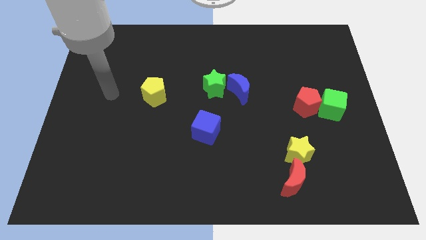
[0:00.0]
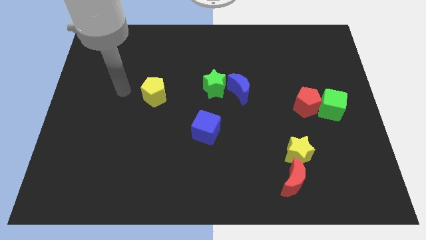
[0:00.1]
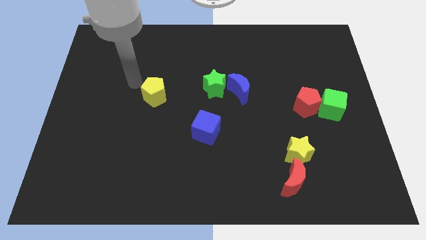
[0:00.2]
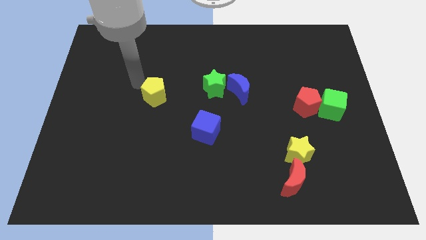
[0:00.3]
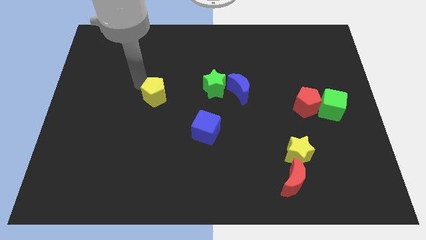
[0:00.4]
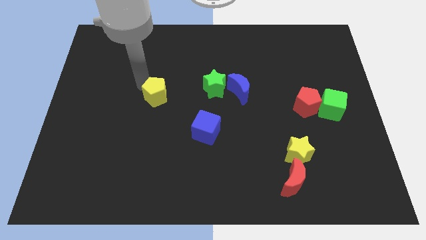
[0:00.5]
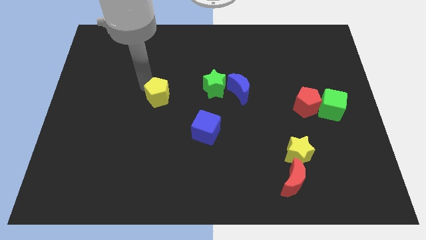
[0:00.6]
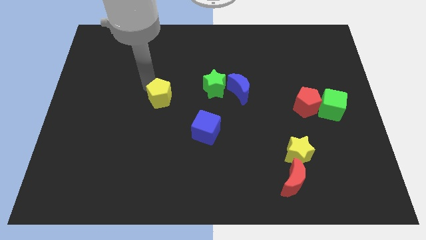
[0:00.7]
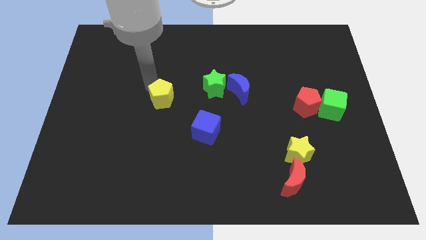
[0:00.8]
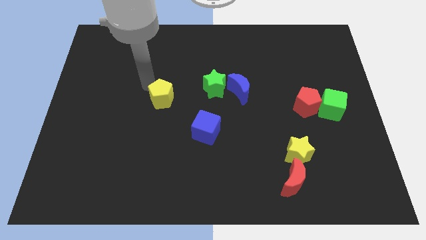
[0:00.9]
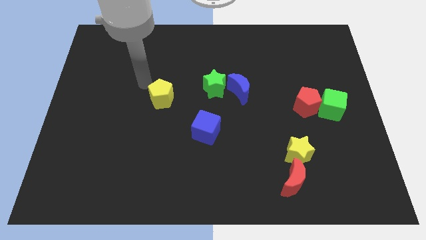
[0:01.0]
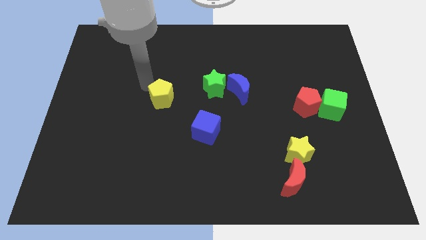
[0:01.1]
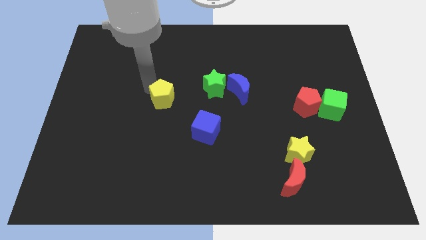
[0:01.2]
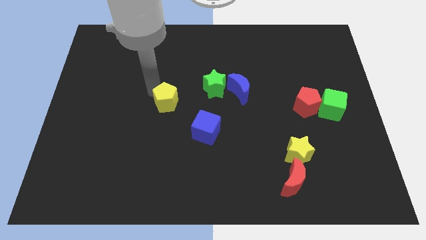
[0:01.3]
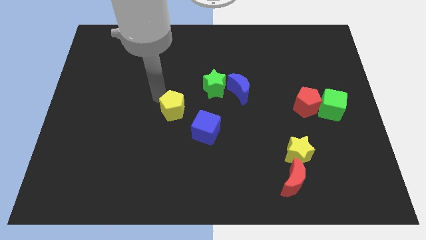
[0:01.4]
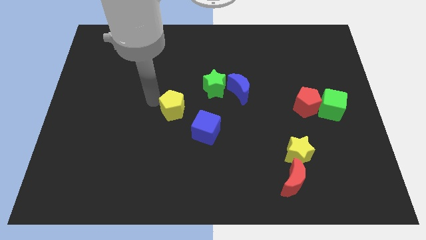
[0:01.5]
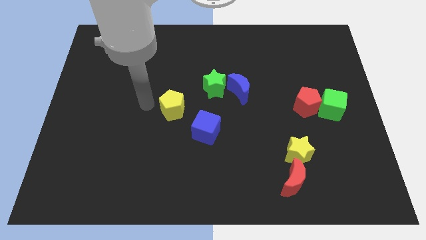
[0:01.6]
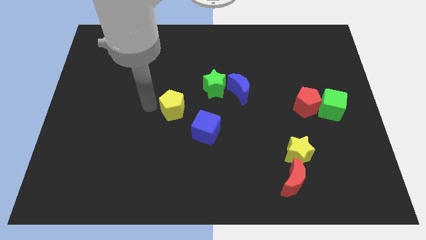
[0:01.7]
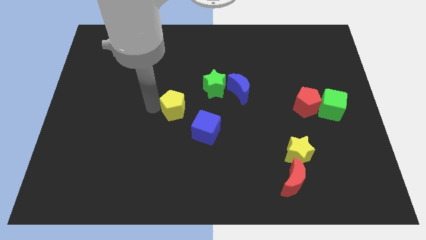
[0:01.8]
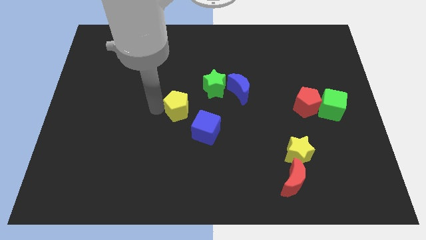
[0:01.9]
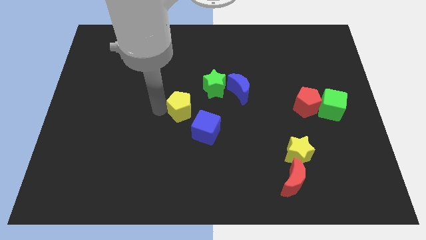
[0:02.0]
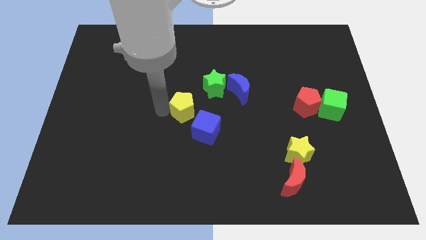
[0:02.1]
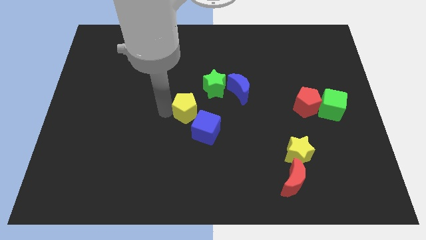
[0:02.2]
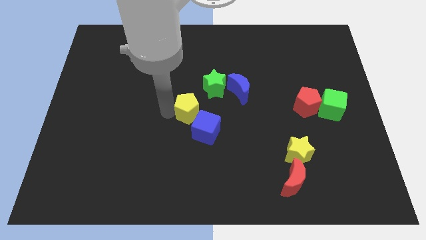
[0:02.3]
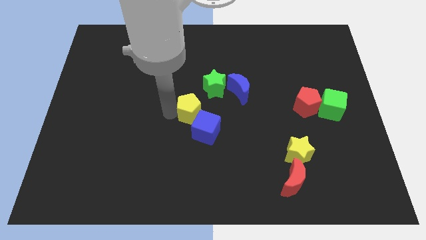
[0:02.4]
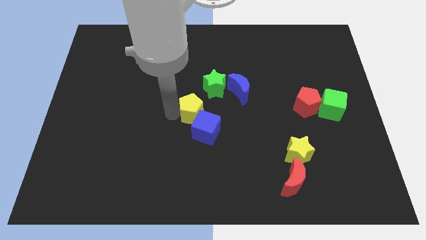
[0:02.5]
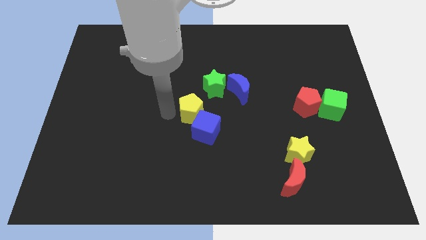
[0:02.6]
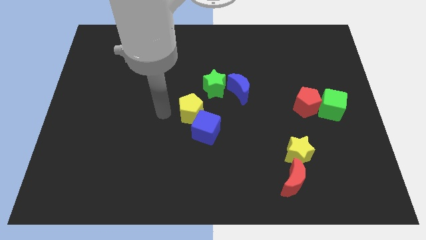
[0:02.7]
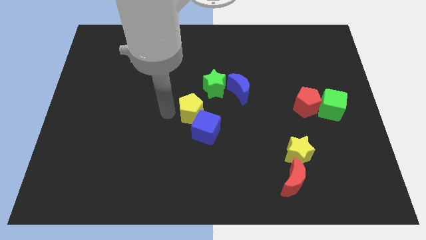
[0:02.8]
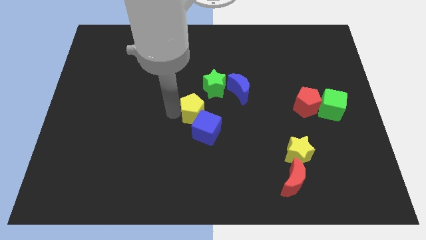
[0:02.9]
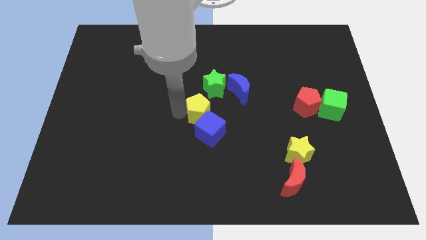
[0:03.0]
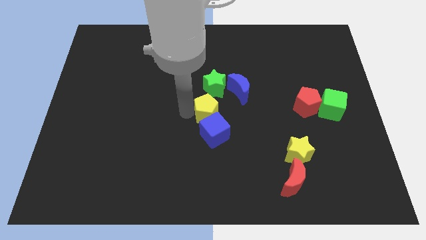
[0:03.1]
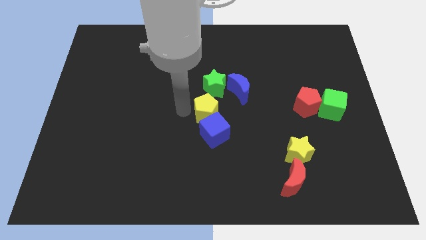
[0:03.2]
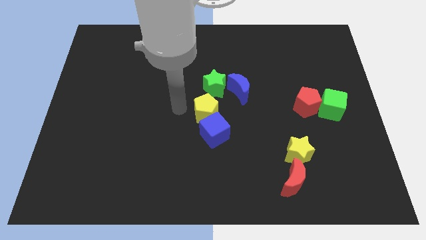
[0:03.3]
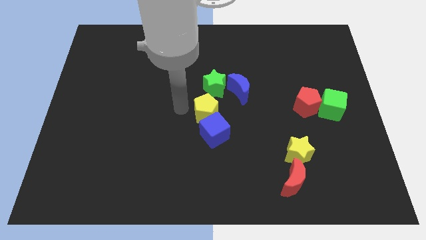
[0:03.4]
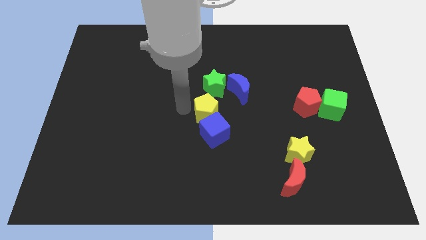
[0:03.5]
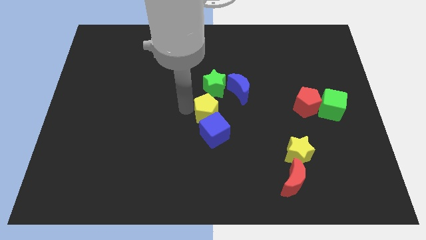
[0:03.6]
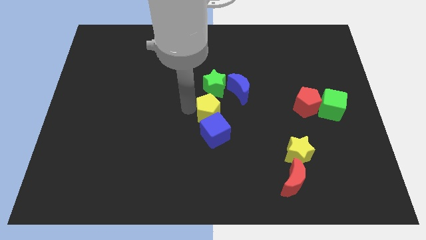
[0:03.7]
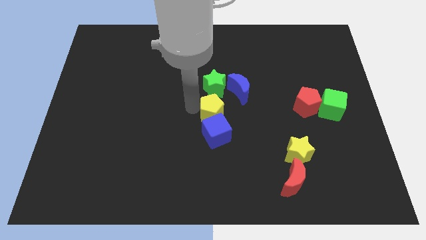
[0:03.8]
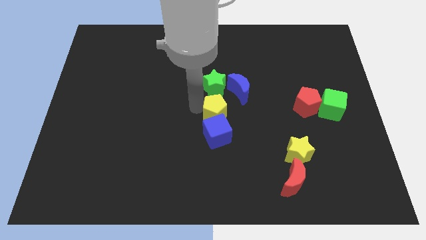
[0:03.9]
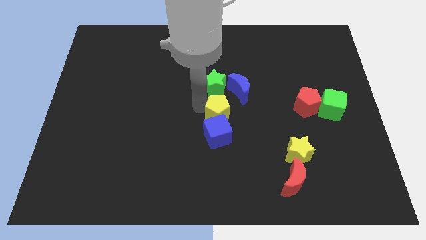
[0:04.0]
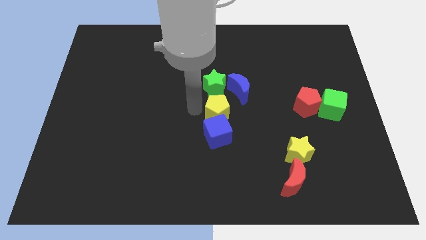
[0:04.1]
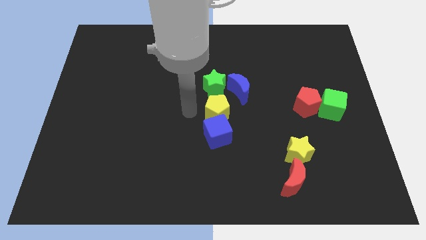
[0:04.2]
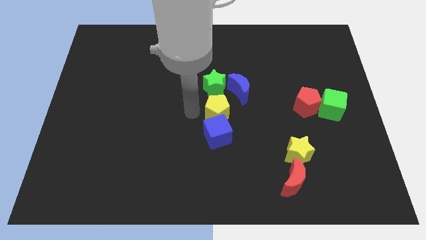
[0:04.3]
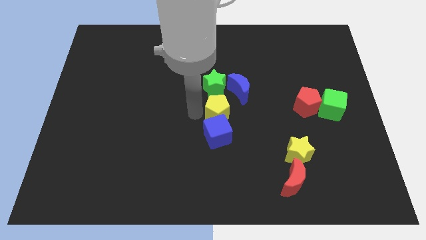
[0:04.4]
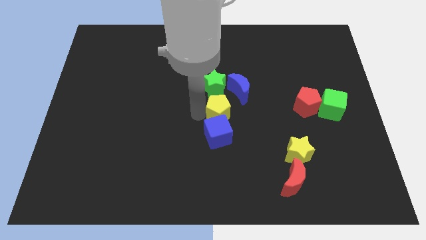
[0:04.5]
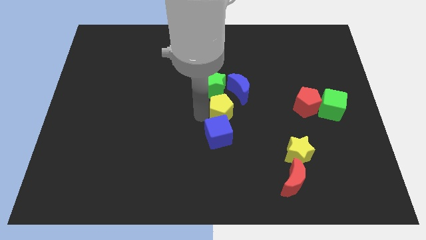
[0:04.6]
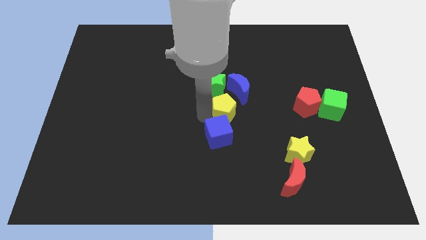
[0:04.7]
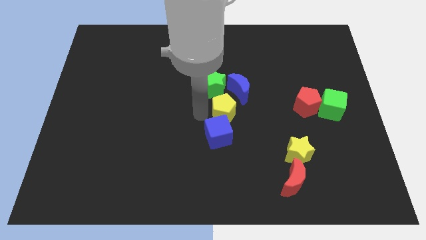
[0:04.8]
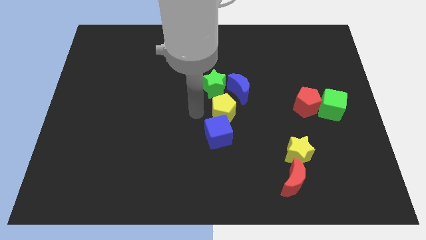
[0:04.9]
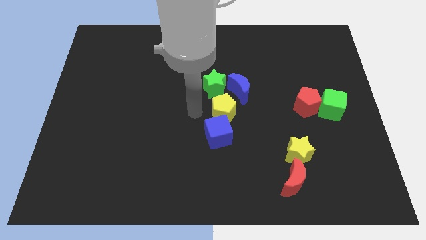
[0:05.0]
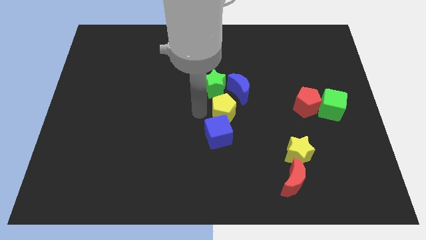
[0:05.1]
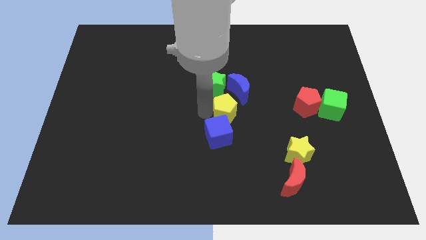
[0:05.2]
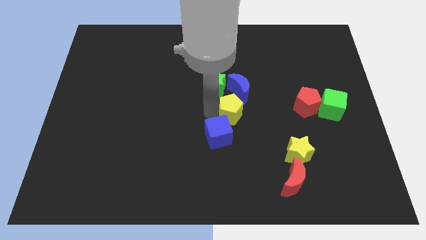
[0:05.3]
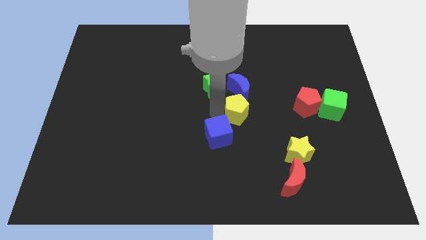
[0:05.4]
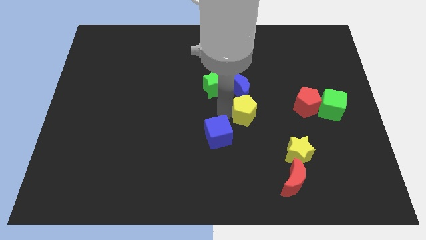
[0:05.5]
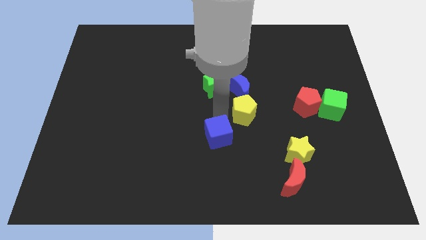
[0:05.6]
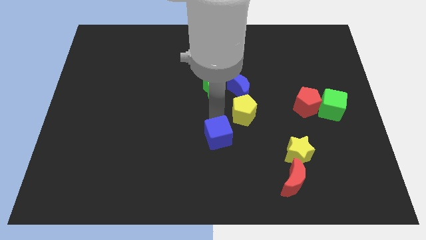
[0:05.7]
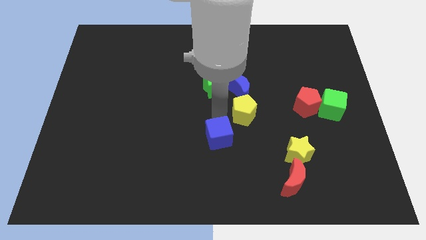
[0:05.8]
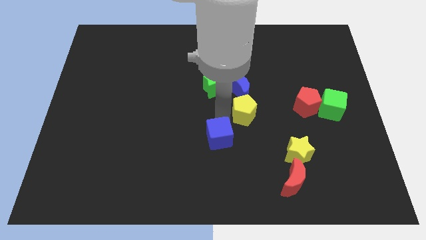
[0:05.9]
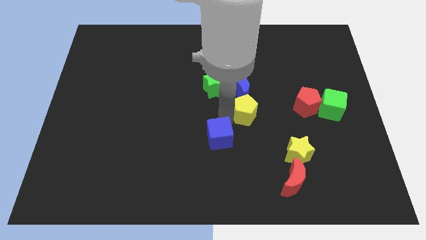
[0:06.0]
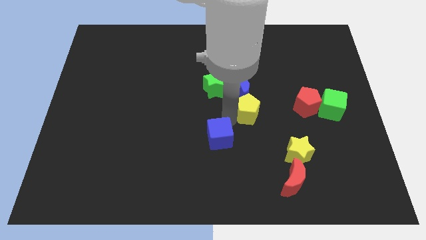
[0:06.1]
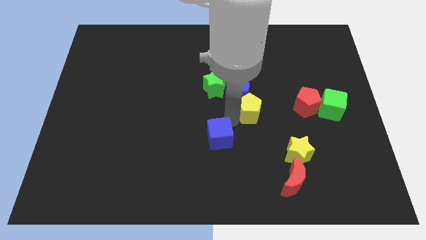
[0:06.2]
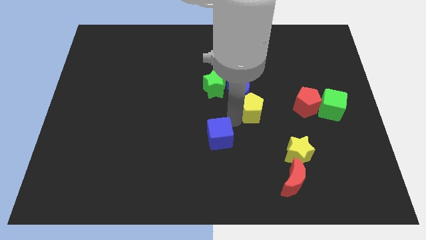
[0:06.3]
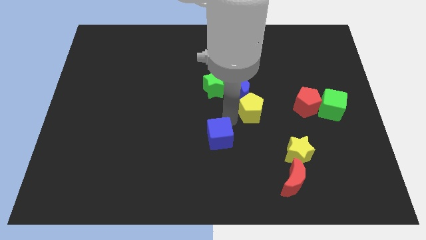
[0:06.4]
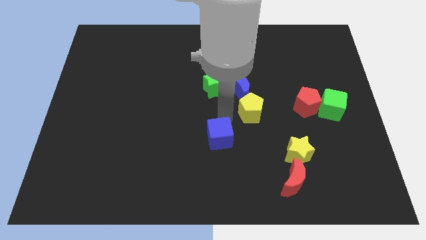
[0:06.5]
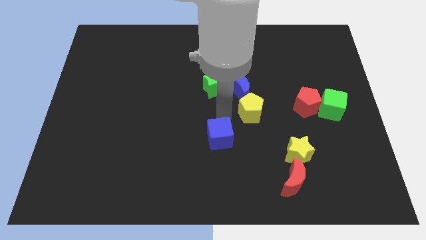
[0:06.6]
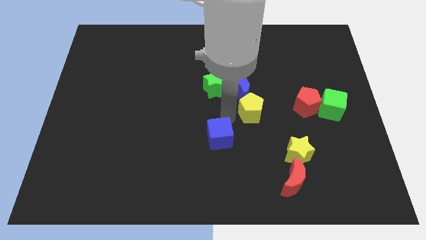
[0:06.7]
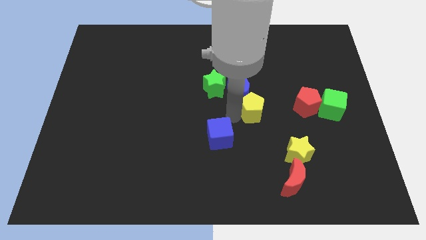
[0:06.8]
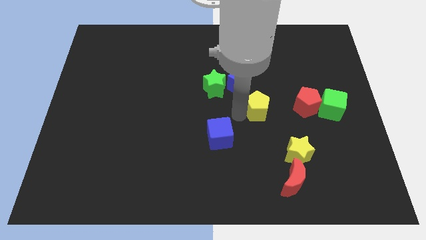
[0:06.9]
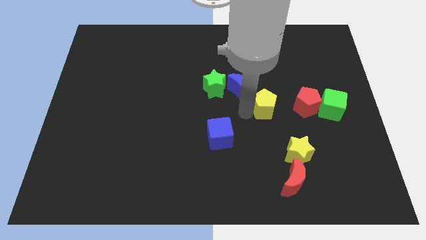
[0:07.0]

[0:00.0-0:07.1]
put the yellow pentagon to the left of the green cube

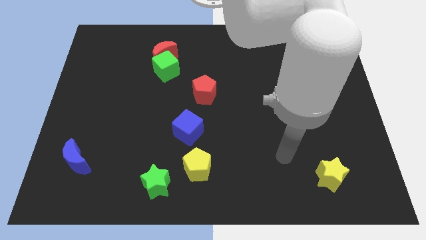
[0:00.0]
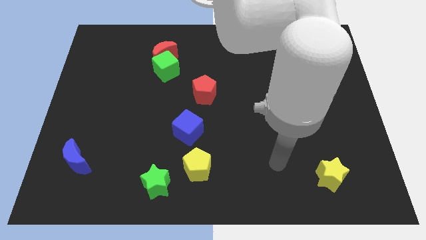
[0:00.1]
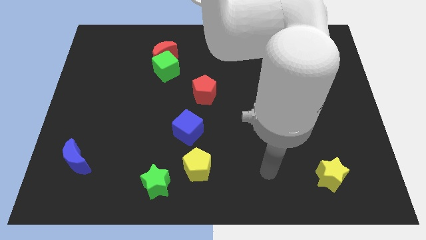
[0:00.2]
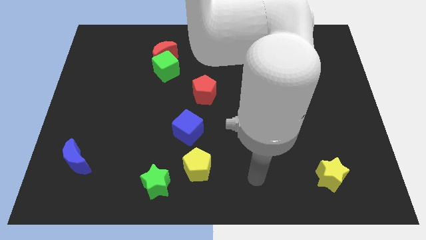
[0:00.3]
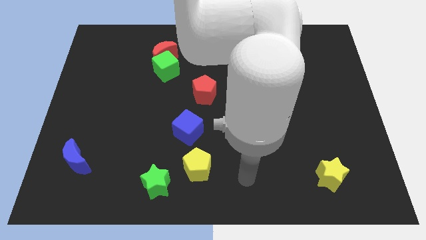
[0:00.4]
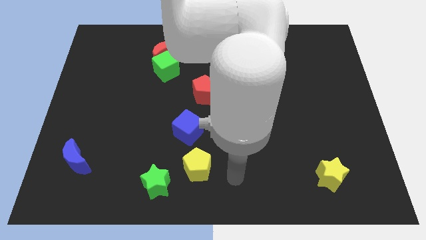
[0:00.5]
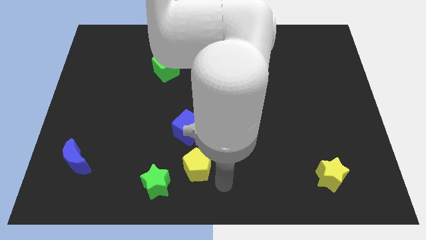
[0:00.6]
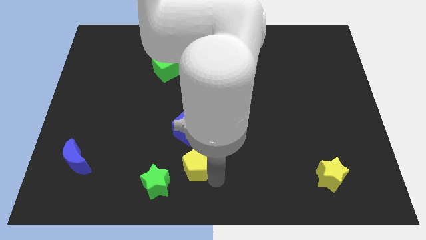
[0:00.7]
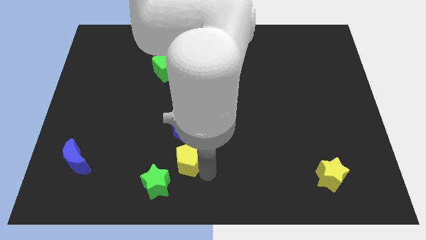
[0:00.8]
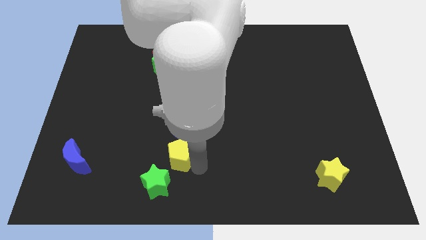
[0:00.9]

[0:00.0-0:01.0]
slide the yellow pentagon above the green star
